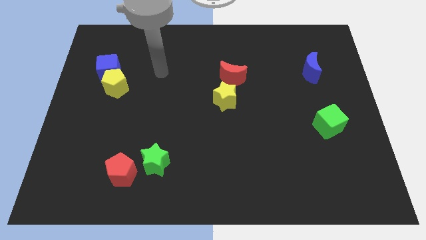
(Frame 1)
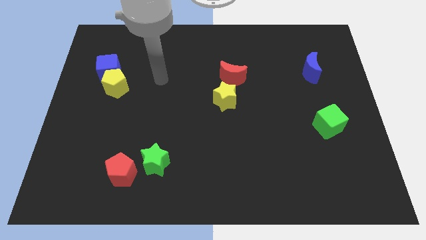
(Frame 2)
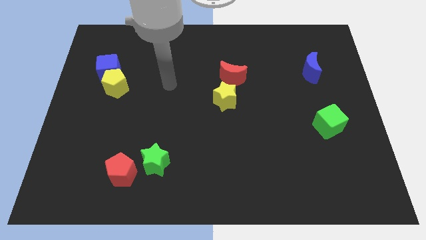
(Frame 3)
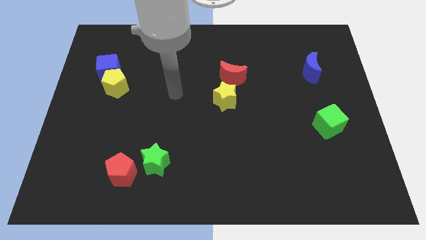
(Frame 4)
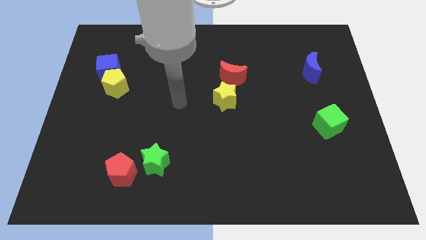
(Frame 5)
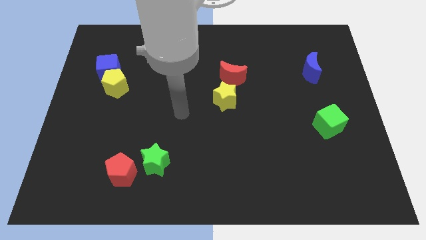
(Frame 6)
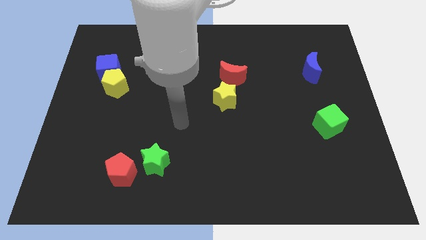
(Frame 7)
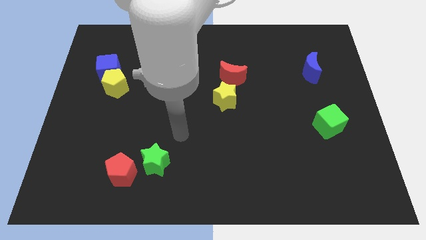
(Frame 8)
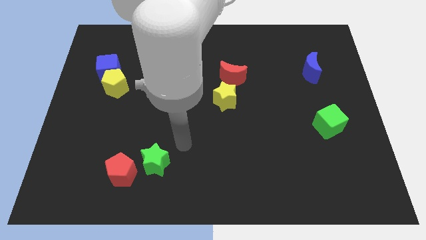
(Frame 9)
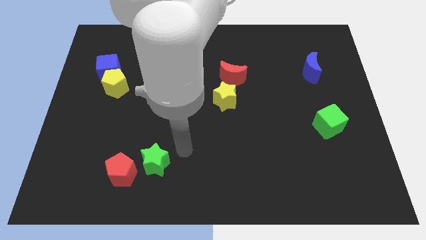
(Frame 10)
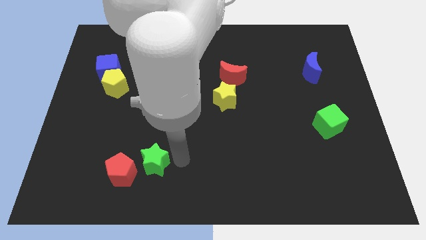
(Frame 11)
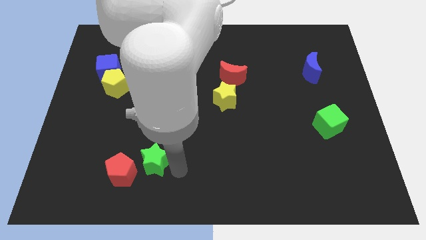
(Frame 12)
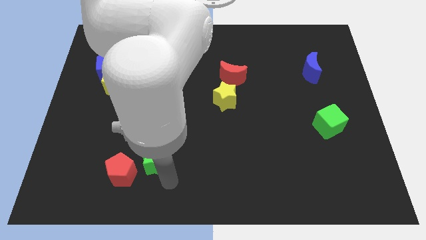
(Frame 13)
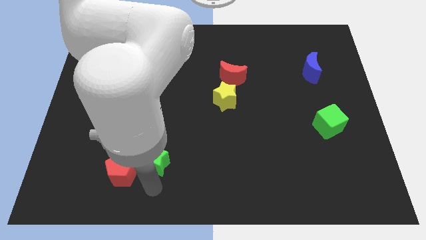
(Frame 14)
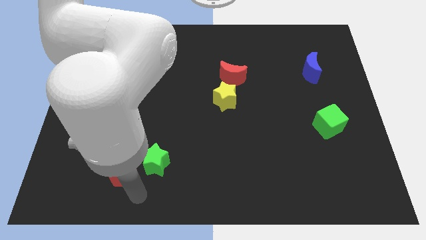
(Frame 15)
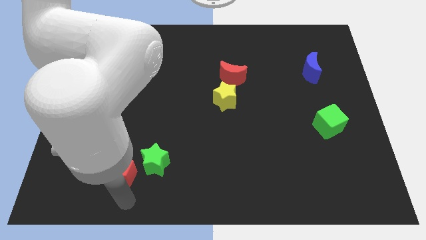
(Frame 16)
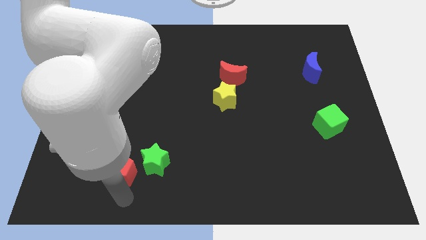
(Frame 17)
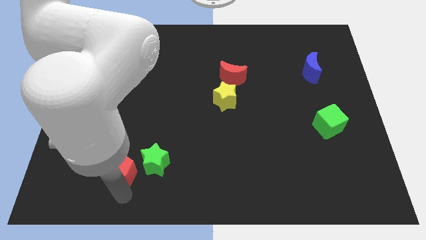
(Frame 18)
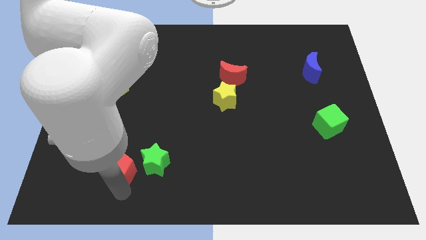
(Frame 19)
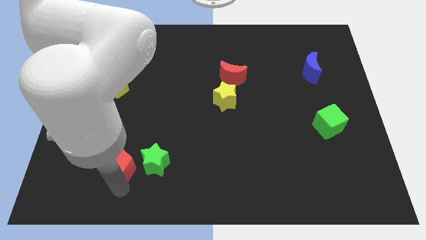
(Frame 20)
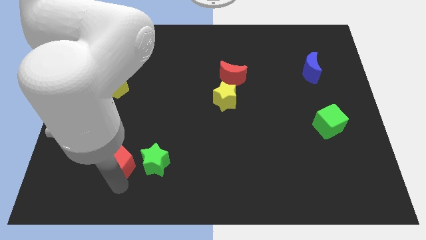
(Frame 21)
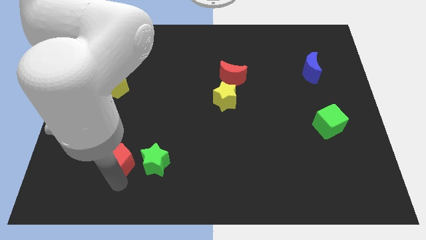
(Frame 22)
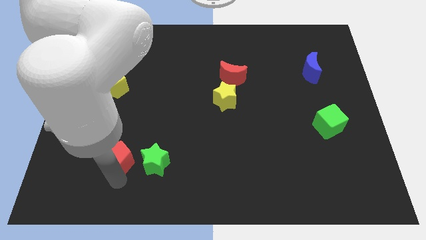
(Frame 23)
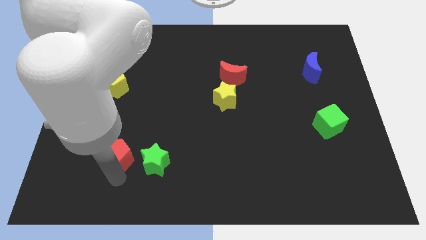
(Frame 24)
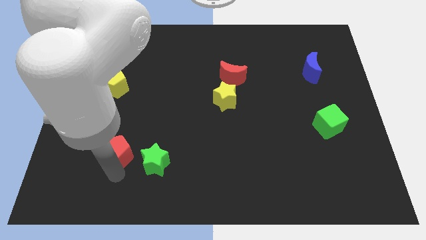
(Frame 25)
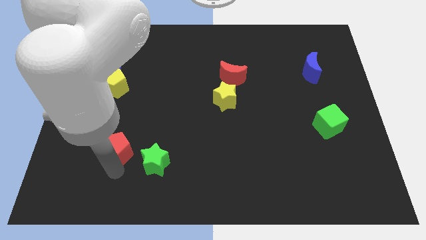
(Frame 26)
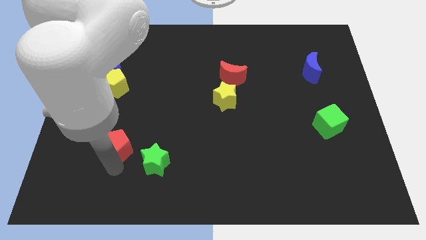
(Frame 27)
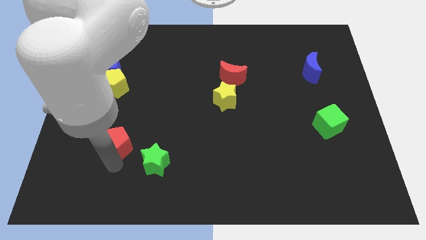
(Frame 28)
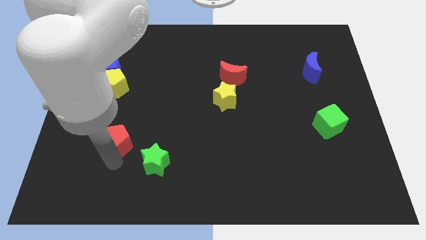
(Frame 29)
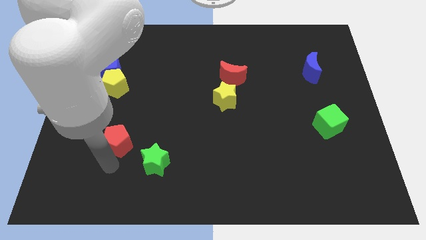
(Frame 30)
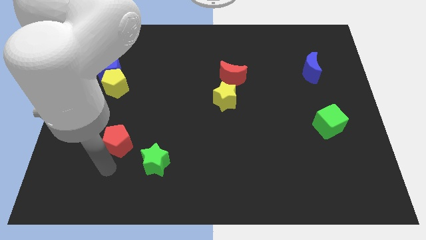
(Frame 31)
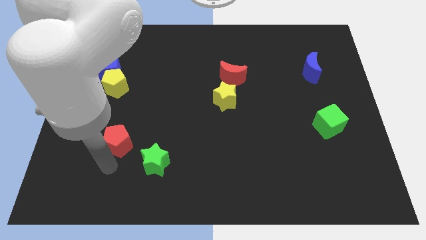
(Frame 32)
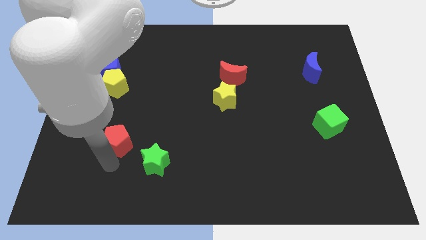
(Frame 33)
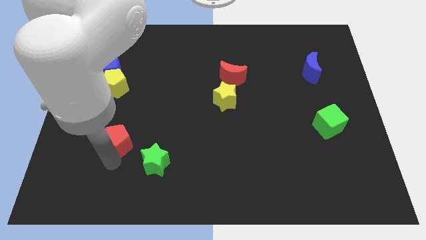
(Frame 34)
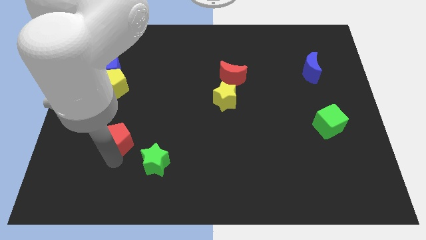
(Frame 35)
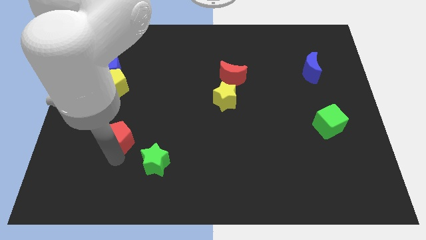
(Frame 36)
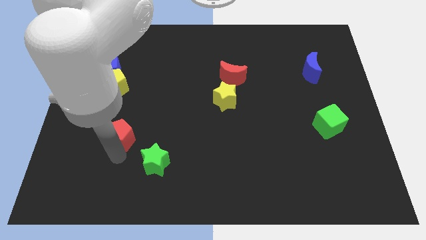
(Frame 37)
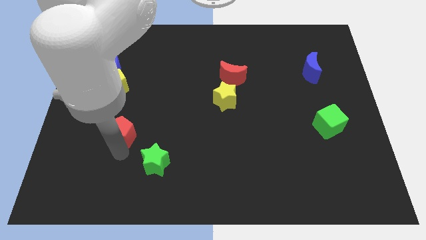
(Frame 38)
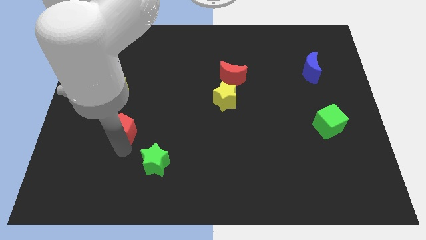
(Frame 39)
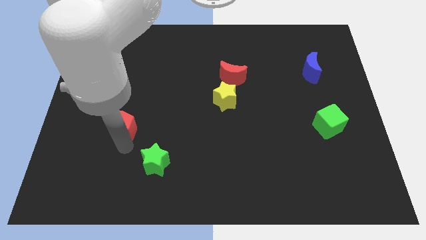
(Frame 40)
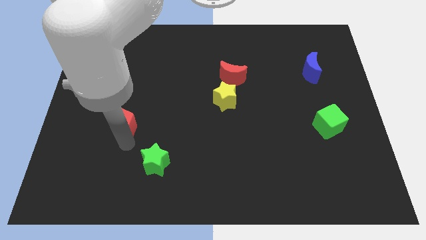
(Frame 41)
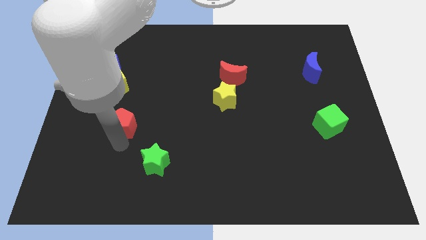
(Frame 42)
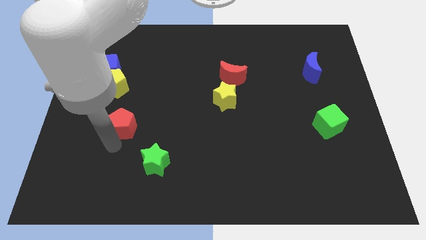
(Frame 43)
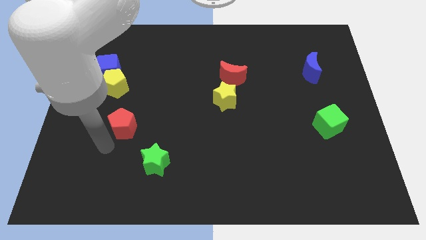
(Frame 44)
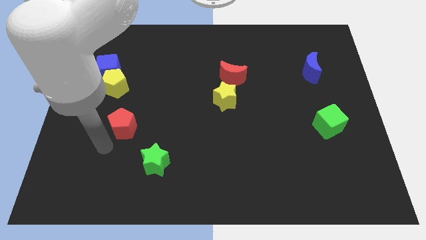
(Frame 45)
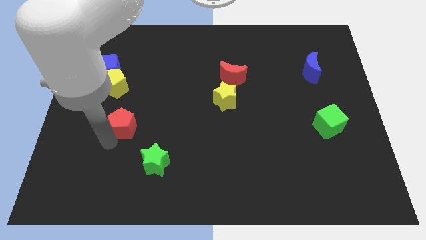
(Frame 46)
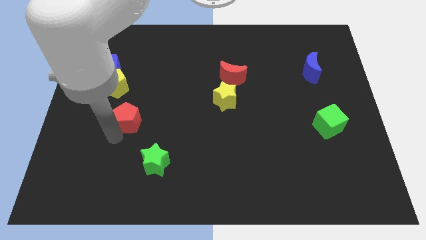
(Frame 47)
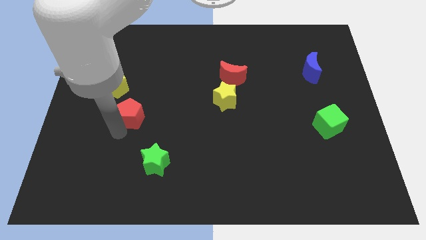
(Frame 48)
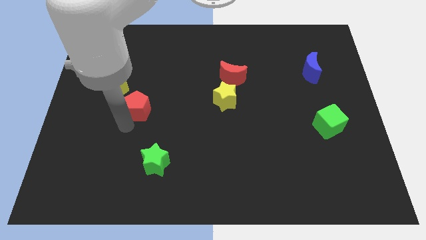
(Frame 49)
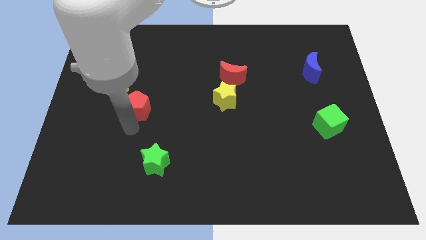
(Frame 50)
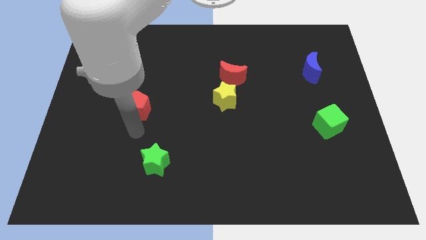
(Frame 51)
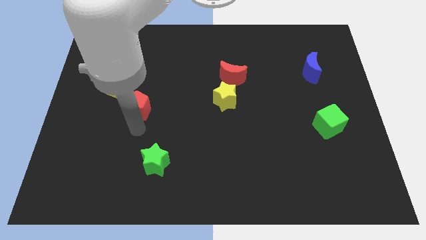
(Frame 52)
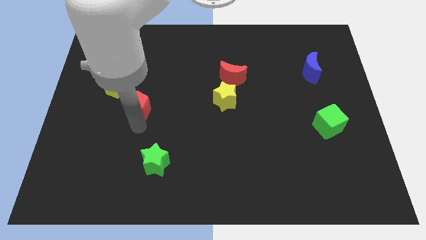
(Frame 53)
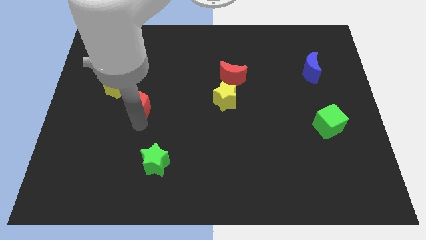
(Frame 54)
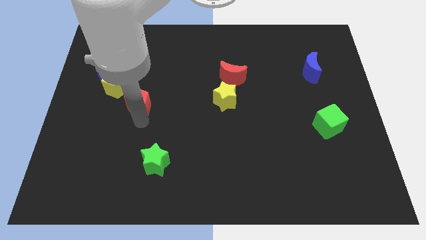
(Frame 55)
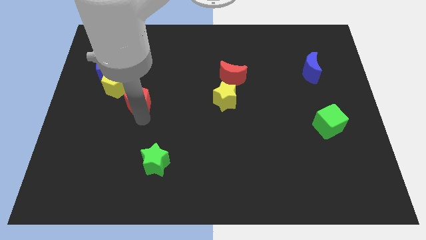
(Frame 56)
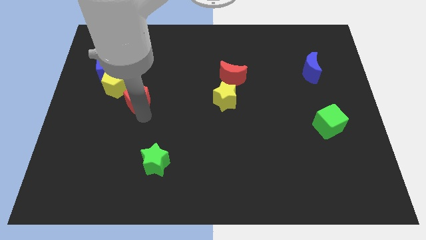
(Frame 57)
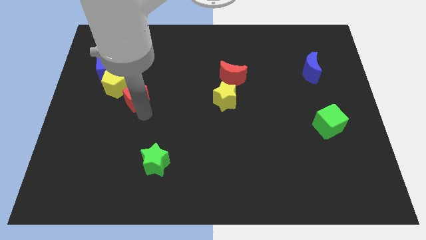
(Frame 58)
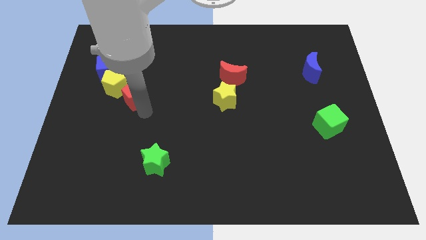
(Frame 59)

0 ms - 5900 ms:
slide the red pentagon upwards

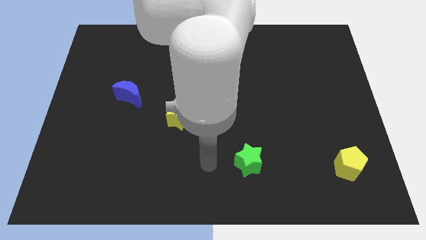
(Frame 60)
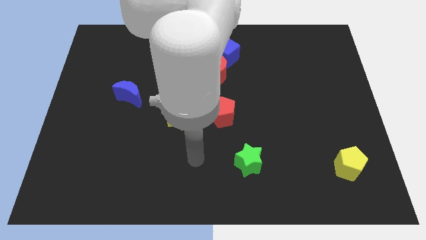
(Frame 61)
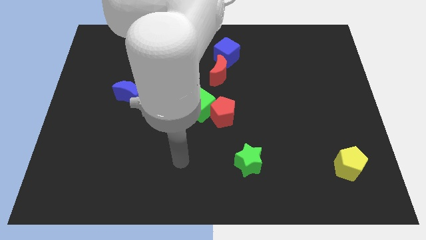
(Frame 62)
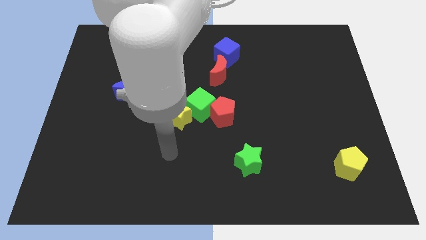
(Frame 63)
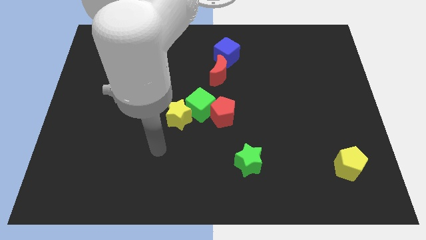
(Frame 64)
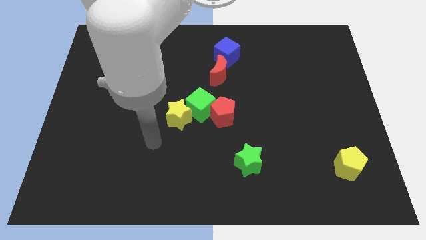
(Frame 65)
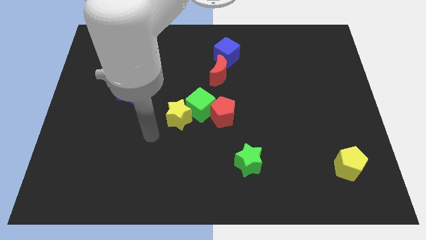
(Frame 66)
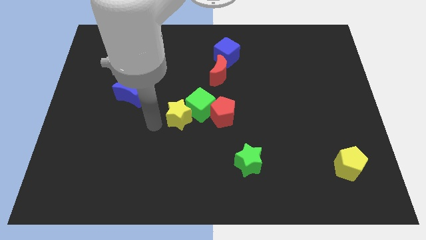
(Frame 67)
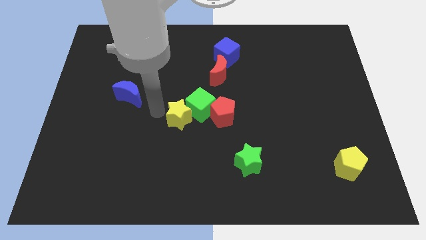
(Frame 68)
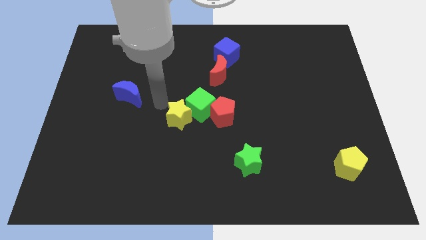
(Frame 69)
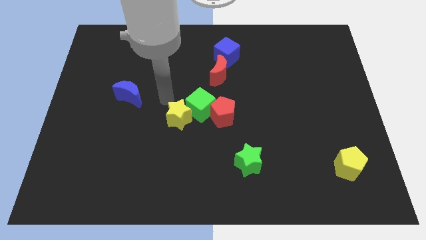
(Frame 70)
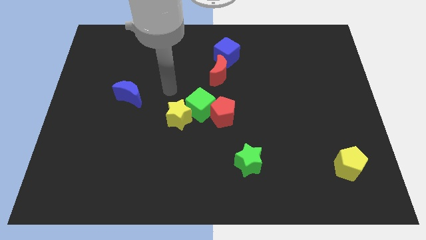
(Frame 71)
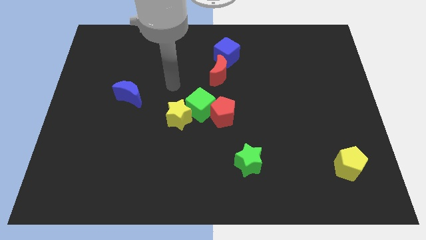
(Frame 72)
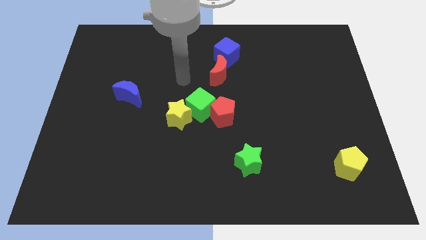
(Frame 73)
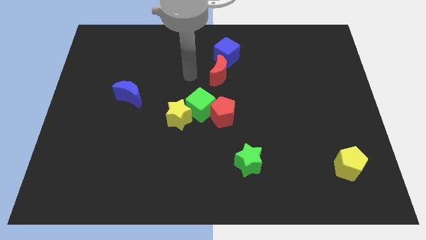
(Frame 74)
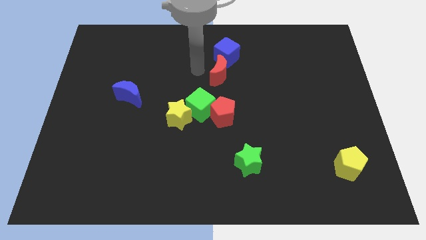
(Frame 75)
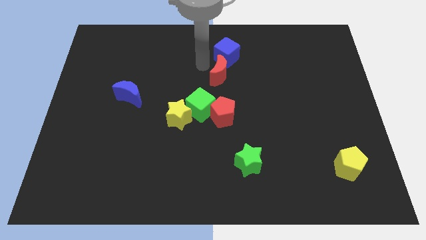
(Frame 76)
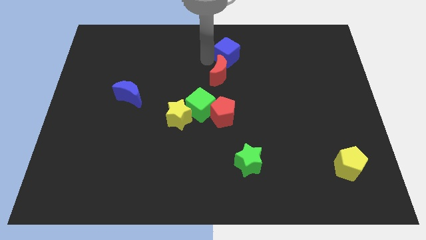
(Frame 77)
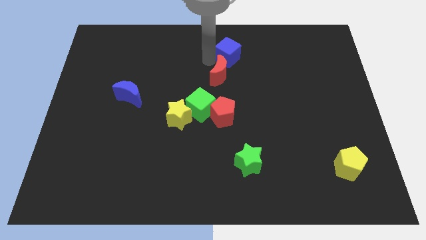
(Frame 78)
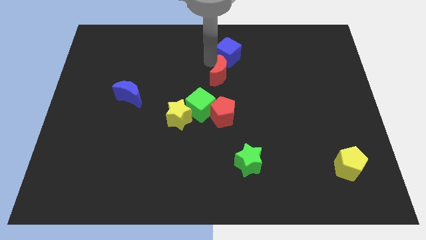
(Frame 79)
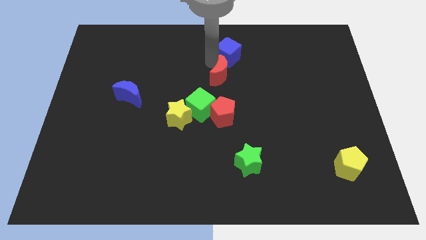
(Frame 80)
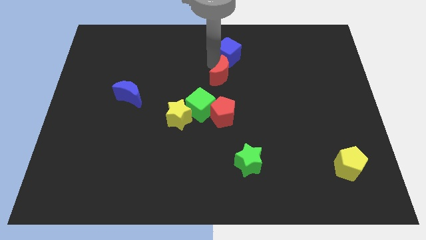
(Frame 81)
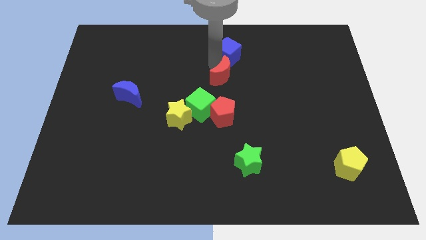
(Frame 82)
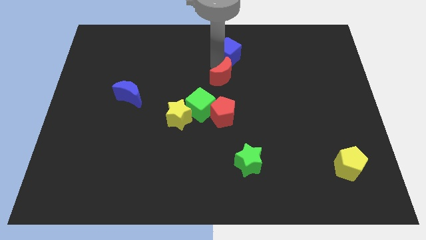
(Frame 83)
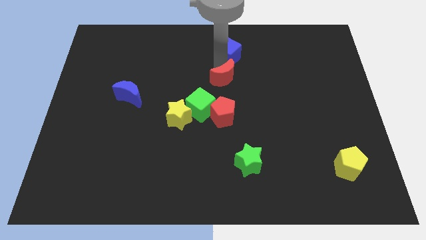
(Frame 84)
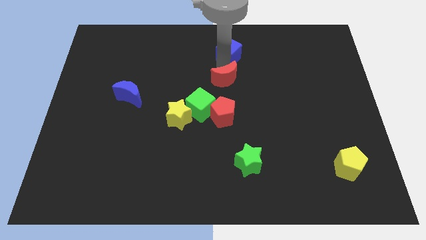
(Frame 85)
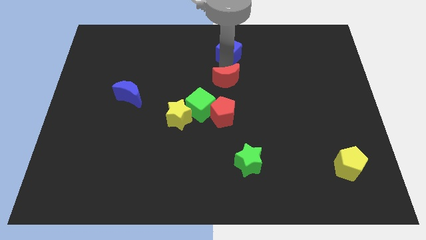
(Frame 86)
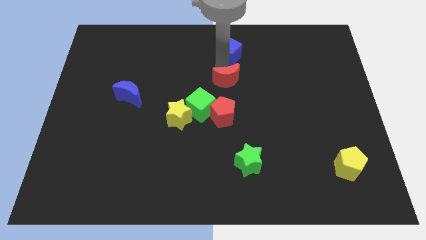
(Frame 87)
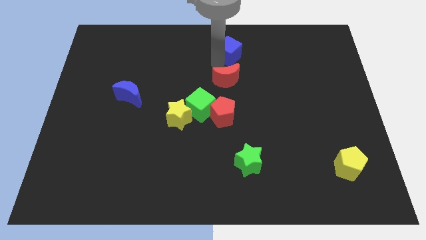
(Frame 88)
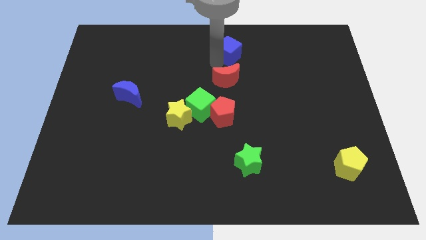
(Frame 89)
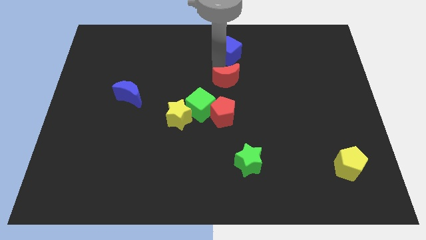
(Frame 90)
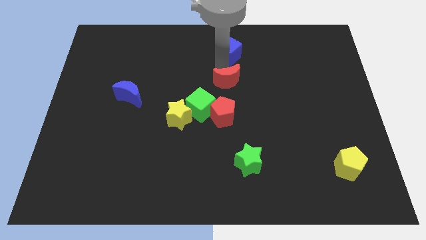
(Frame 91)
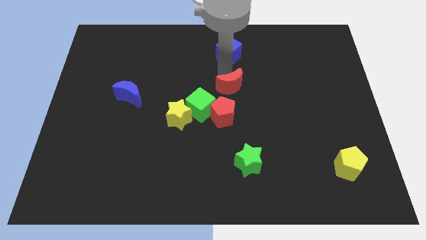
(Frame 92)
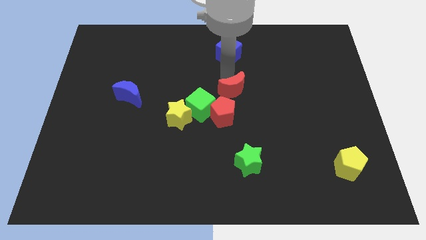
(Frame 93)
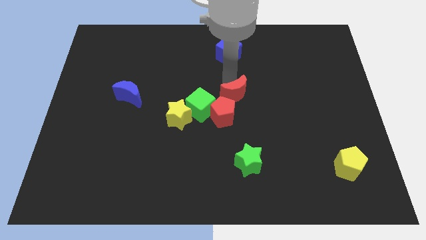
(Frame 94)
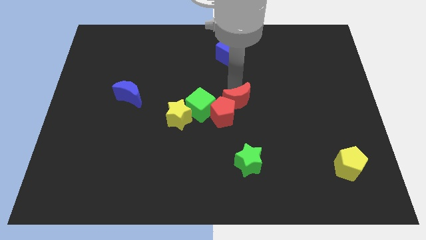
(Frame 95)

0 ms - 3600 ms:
push the red moon down a bit
